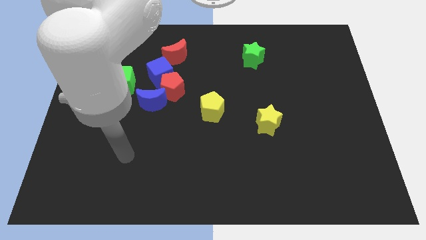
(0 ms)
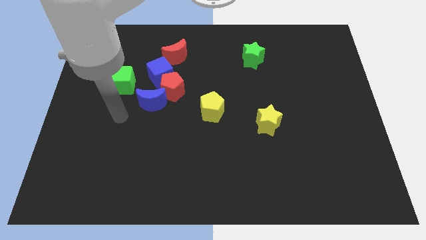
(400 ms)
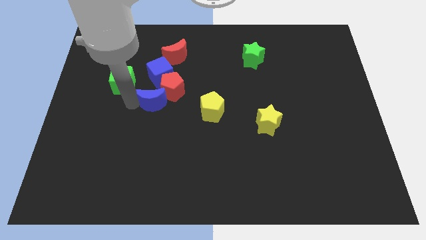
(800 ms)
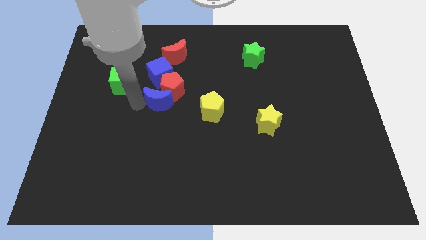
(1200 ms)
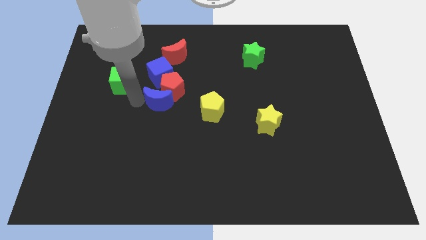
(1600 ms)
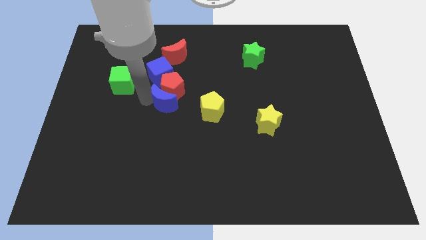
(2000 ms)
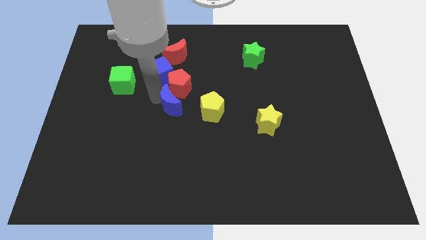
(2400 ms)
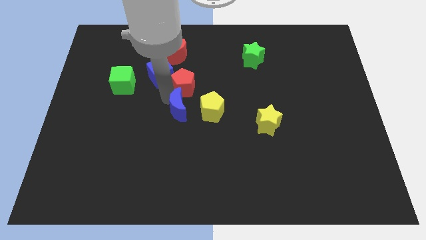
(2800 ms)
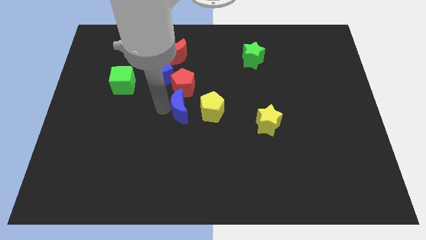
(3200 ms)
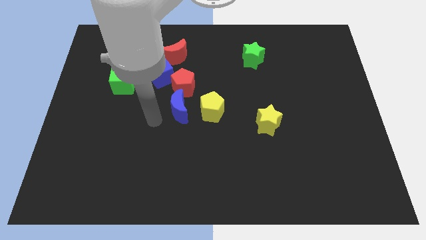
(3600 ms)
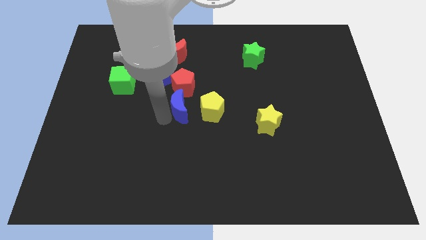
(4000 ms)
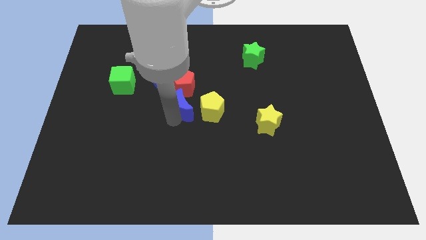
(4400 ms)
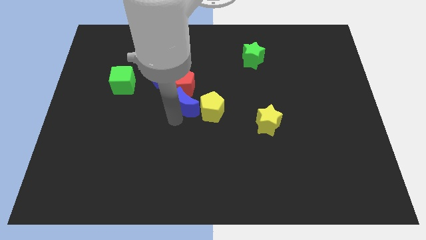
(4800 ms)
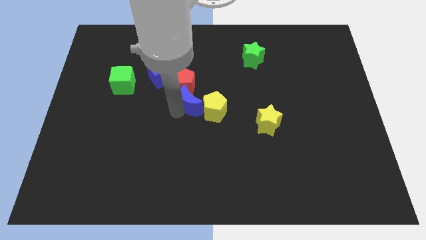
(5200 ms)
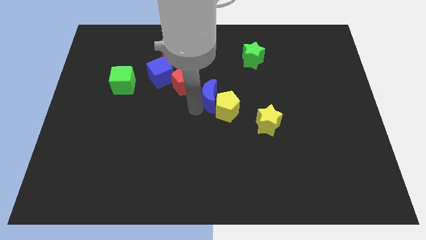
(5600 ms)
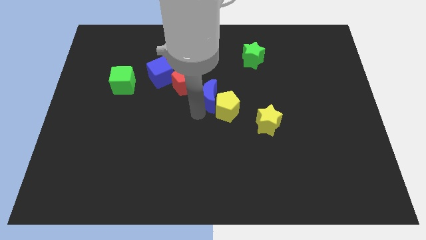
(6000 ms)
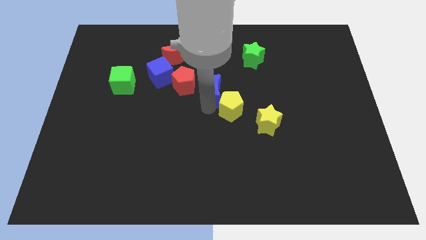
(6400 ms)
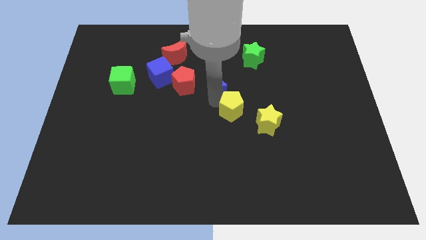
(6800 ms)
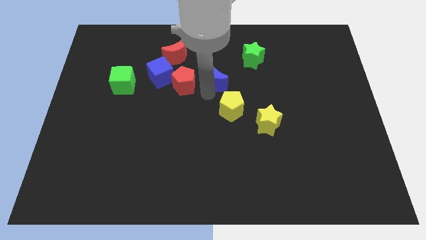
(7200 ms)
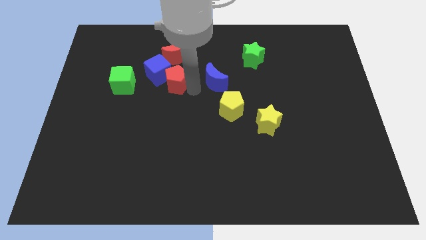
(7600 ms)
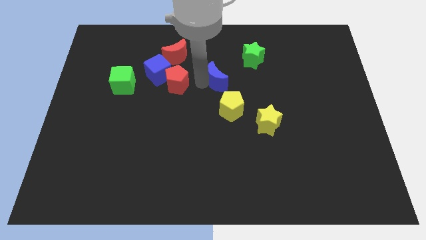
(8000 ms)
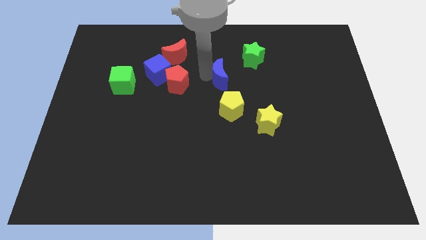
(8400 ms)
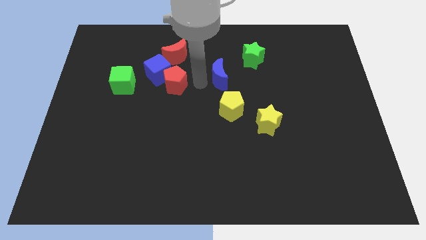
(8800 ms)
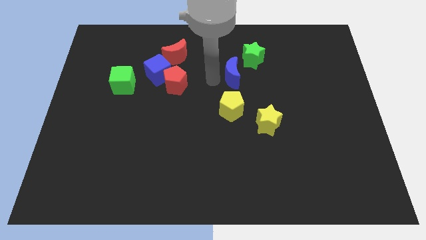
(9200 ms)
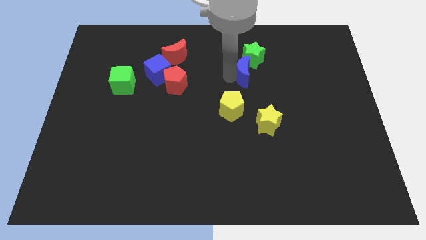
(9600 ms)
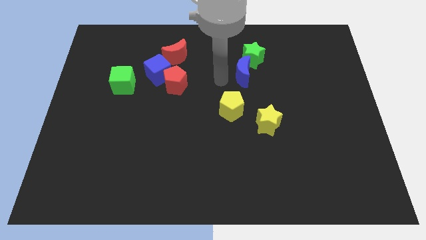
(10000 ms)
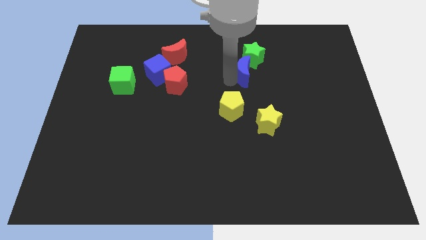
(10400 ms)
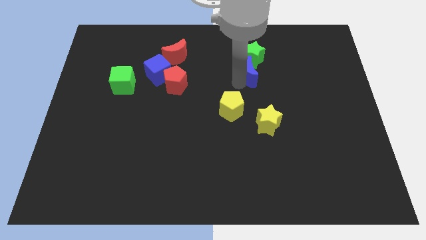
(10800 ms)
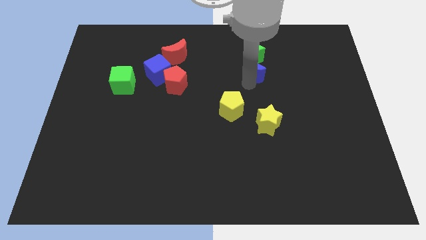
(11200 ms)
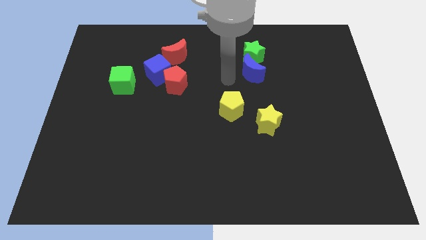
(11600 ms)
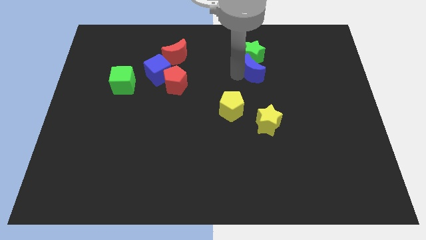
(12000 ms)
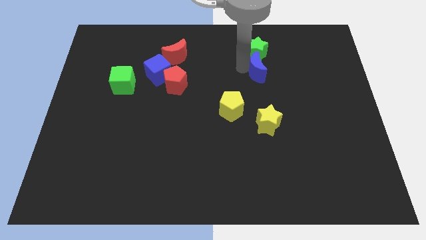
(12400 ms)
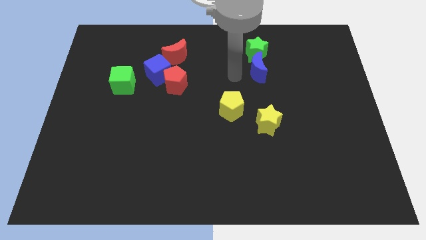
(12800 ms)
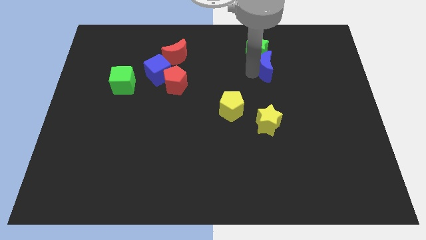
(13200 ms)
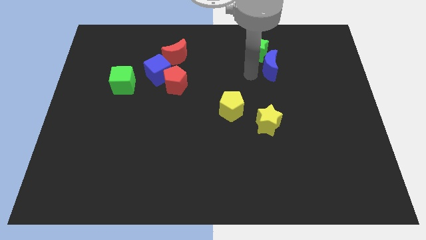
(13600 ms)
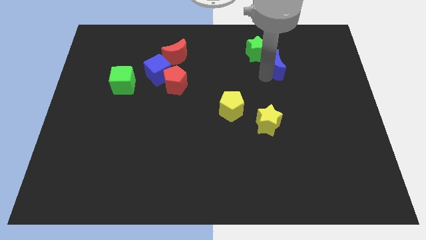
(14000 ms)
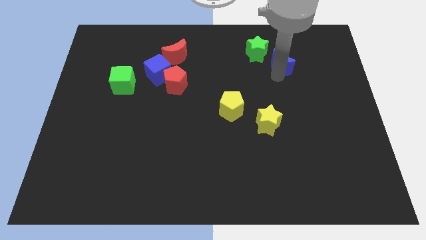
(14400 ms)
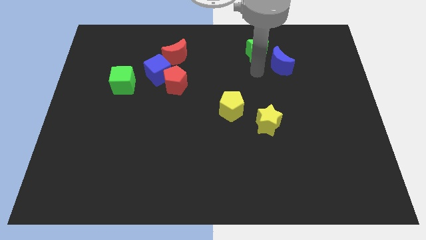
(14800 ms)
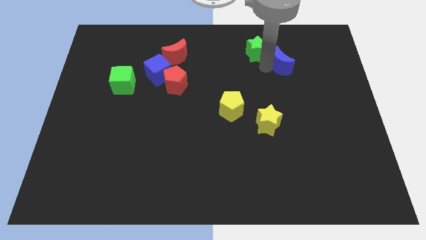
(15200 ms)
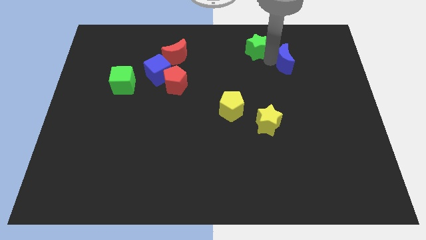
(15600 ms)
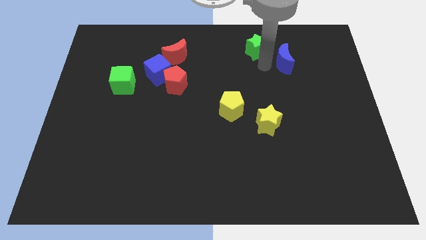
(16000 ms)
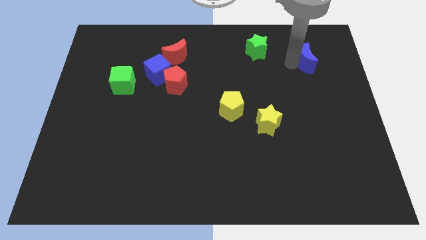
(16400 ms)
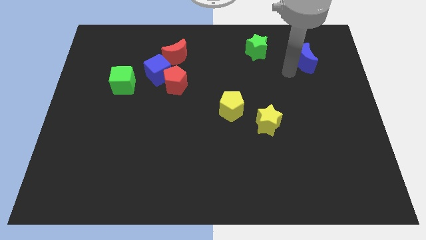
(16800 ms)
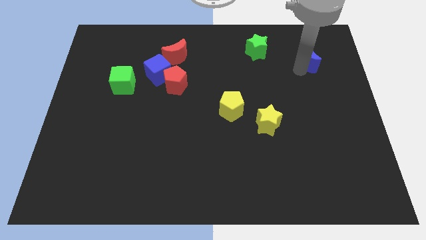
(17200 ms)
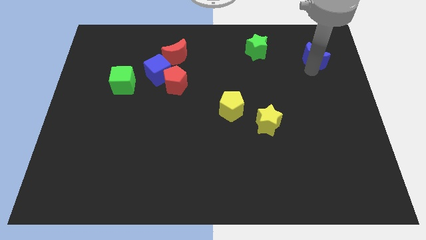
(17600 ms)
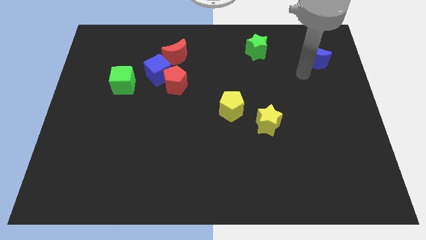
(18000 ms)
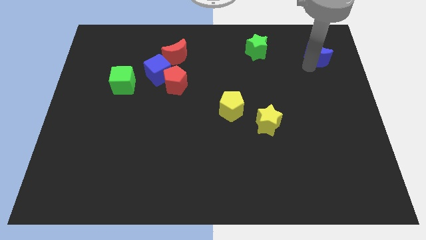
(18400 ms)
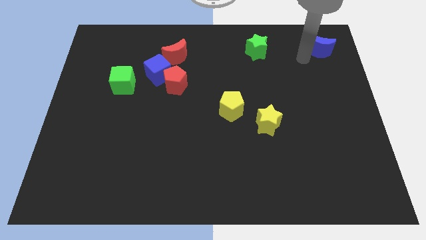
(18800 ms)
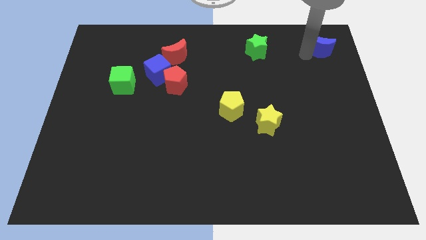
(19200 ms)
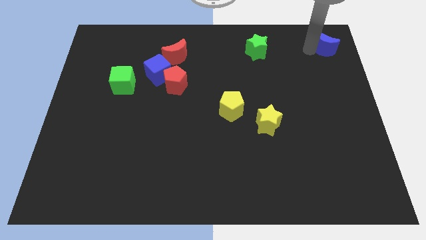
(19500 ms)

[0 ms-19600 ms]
put the blue moon to the upper right corner

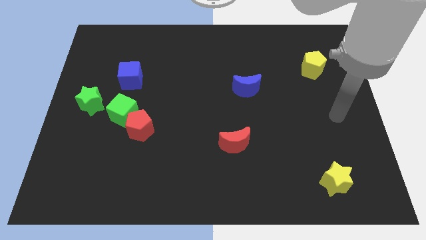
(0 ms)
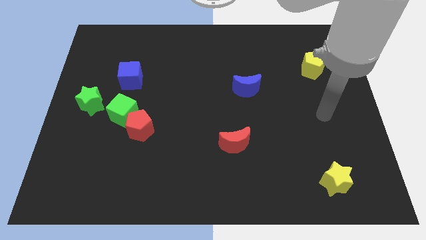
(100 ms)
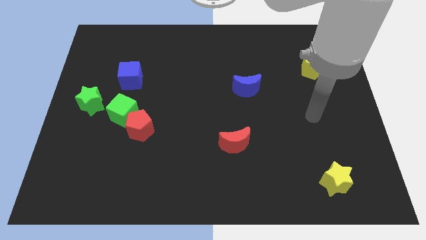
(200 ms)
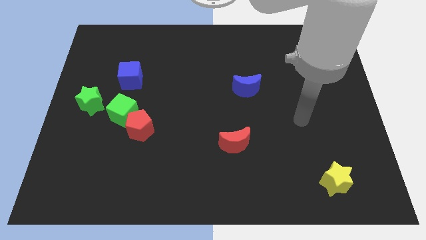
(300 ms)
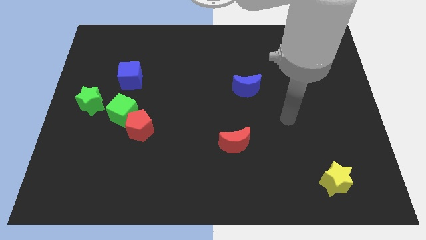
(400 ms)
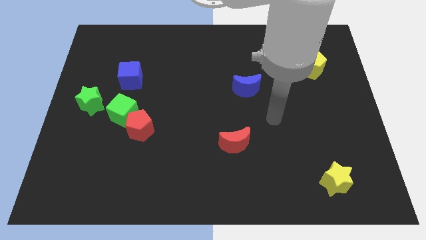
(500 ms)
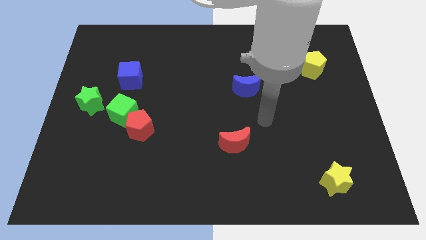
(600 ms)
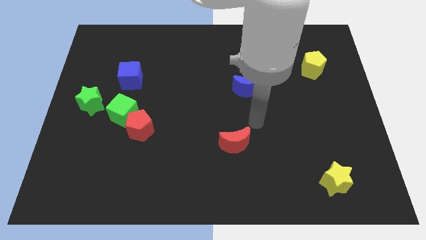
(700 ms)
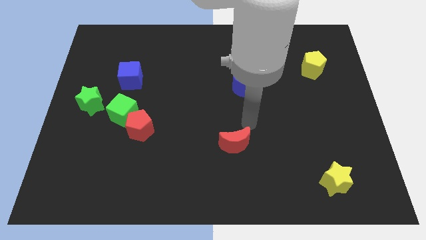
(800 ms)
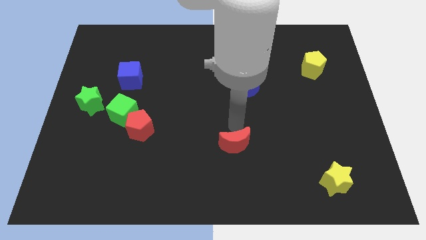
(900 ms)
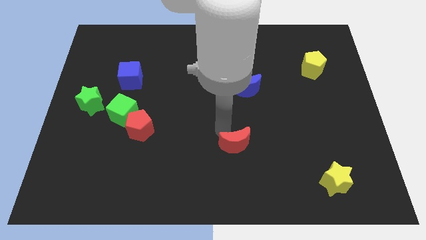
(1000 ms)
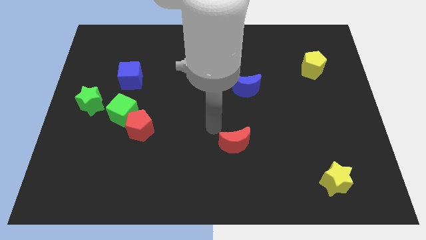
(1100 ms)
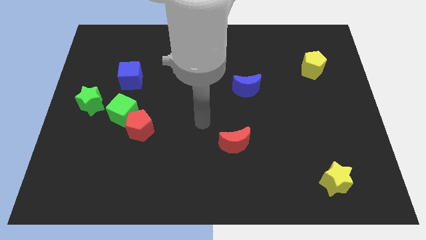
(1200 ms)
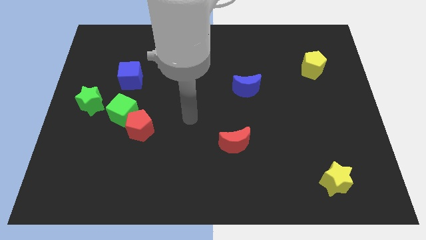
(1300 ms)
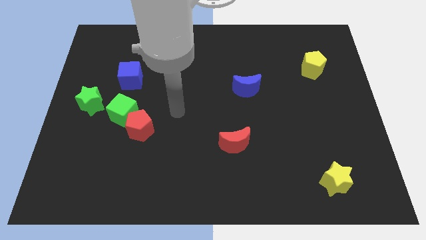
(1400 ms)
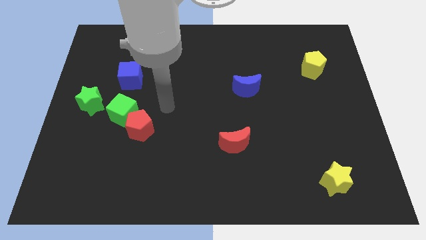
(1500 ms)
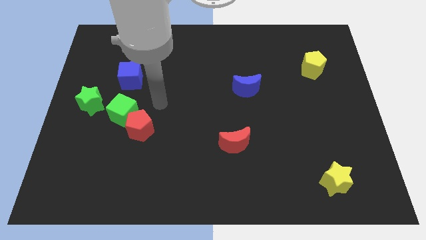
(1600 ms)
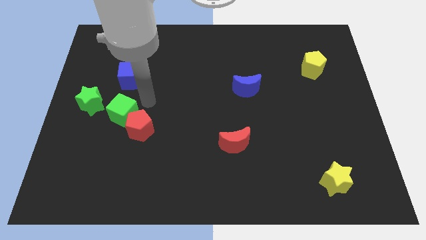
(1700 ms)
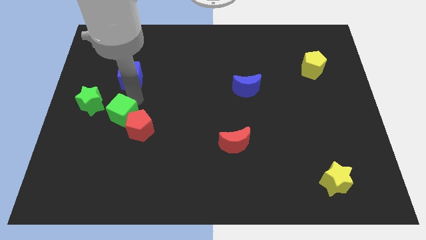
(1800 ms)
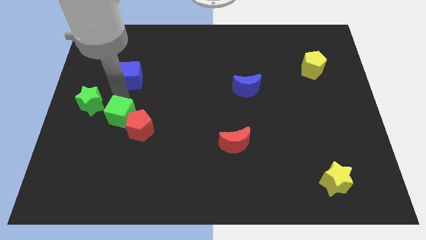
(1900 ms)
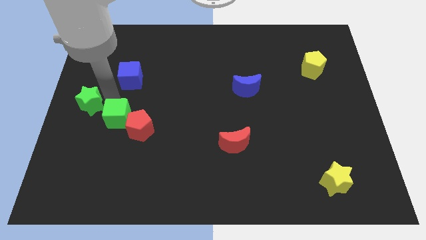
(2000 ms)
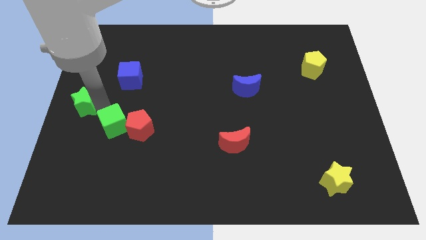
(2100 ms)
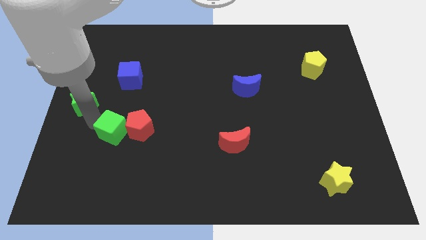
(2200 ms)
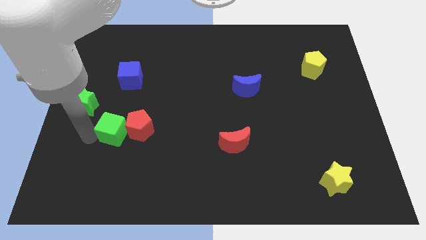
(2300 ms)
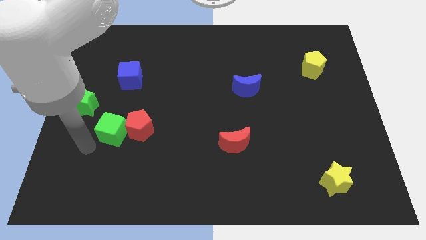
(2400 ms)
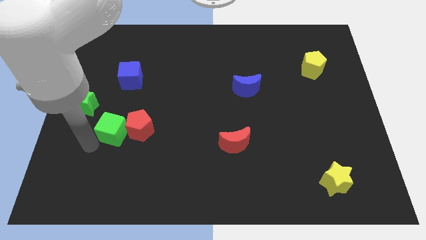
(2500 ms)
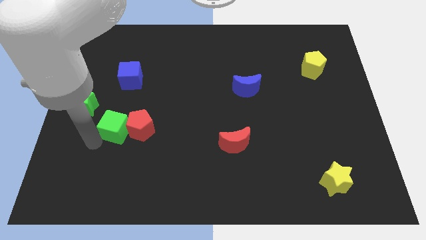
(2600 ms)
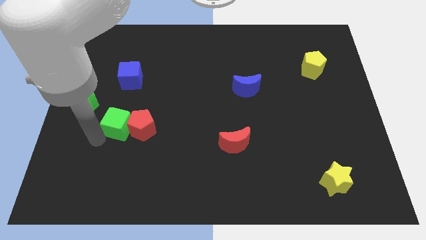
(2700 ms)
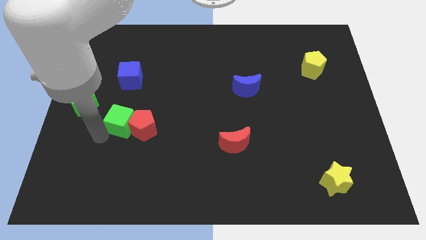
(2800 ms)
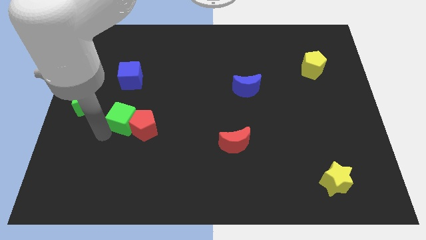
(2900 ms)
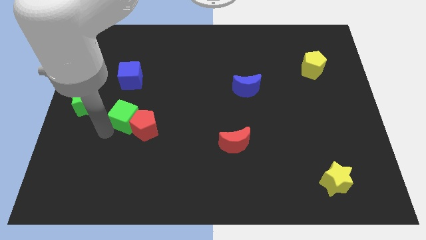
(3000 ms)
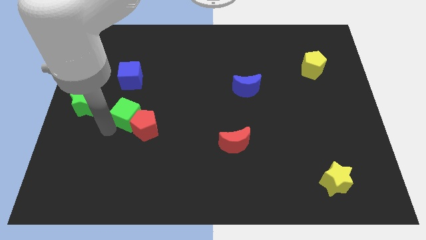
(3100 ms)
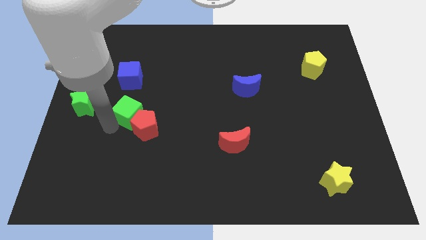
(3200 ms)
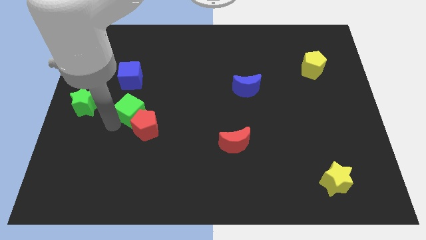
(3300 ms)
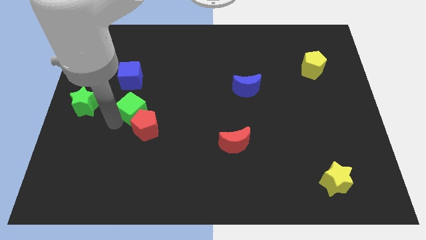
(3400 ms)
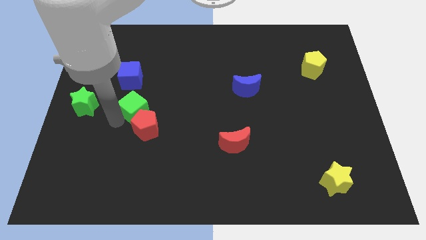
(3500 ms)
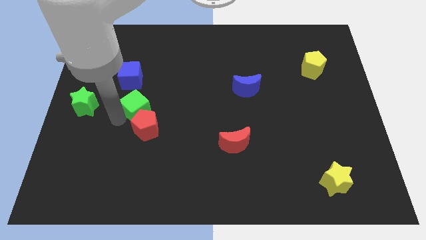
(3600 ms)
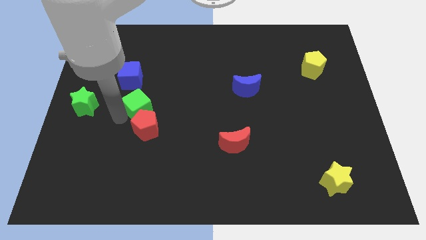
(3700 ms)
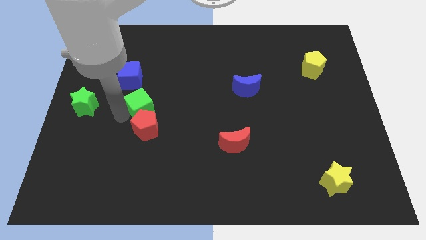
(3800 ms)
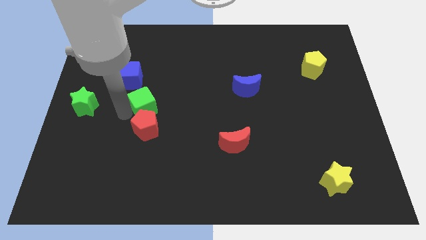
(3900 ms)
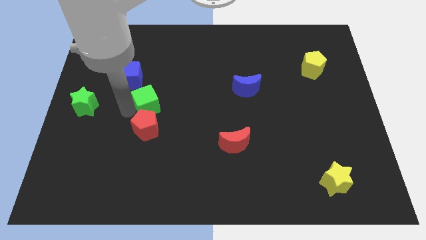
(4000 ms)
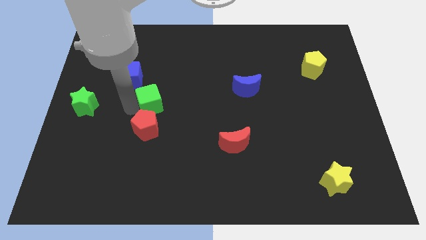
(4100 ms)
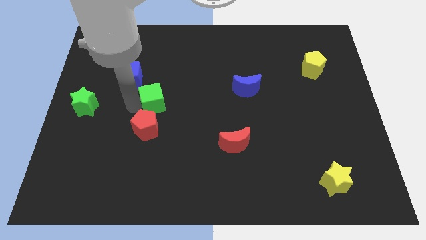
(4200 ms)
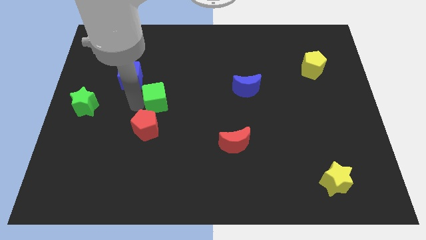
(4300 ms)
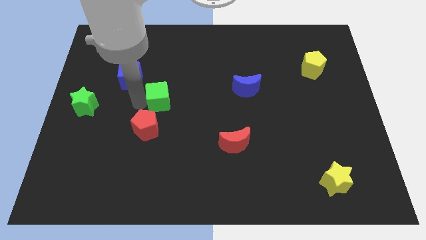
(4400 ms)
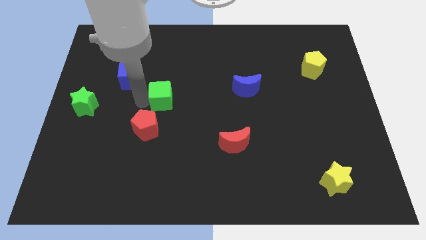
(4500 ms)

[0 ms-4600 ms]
slide the green cube to the middle of the board
